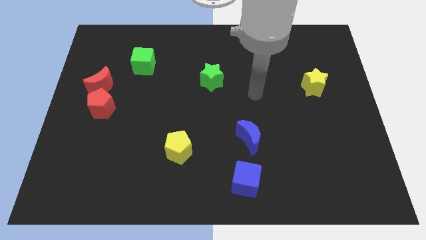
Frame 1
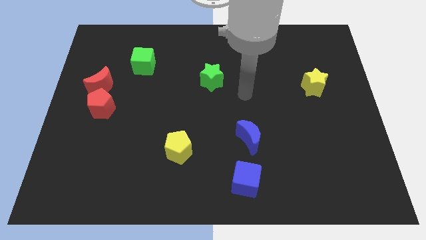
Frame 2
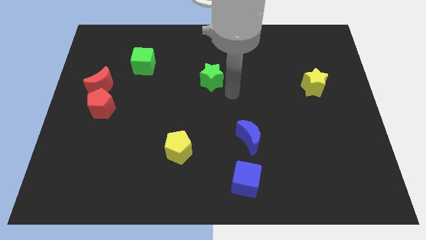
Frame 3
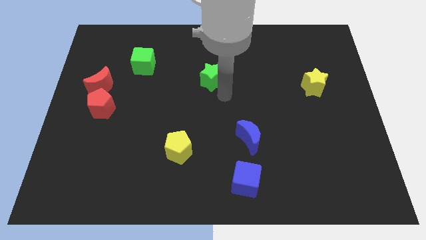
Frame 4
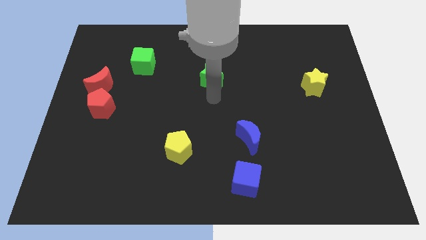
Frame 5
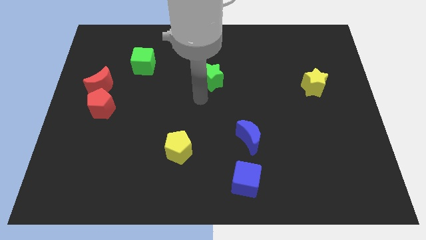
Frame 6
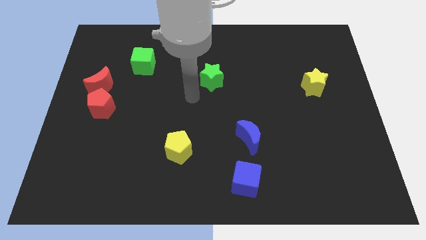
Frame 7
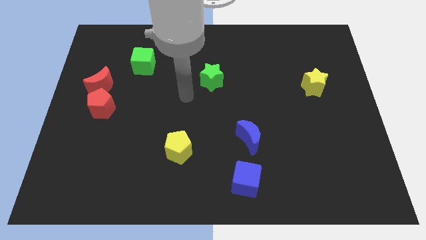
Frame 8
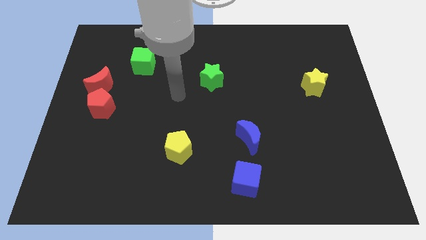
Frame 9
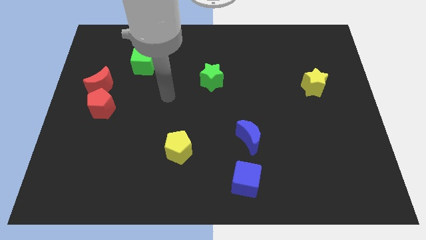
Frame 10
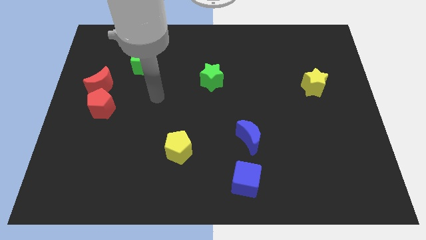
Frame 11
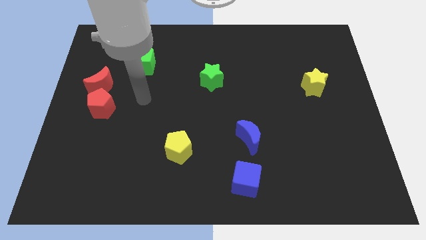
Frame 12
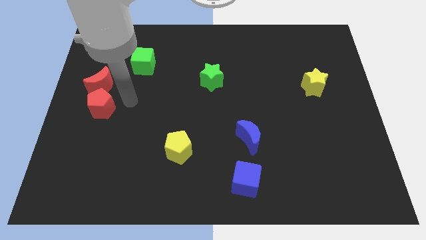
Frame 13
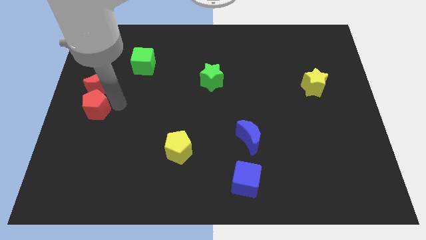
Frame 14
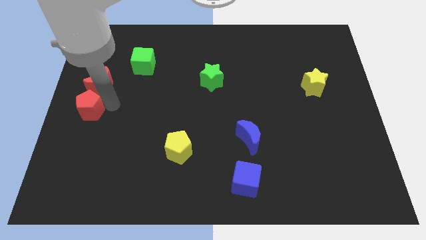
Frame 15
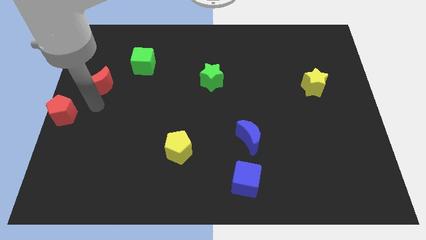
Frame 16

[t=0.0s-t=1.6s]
separate the red moon from the red pentagon

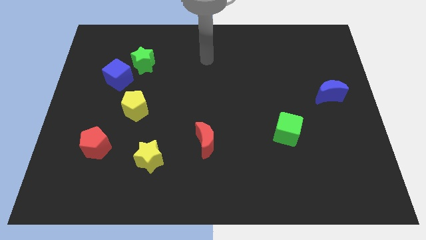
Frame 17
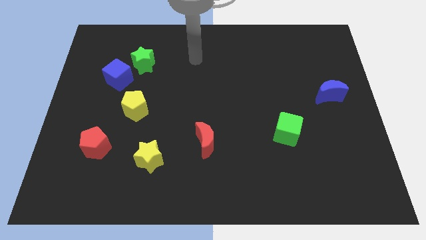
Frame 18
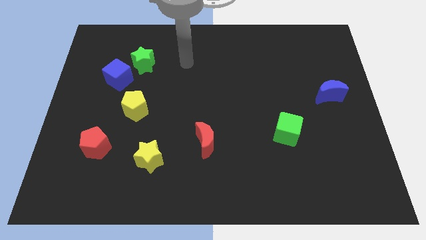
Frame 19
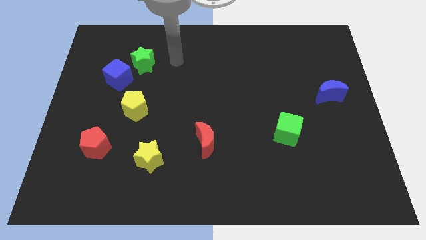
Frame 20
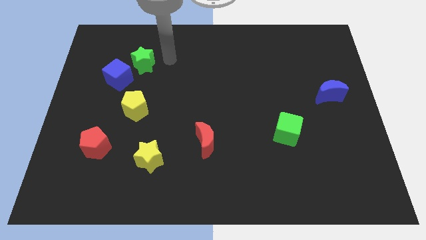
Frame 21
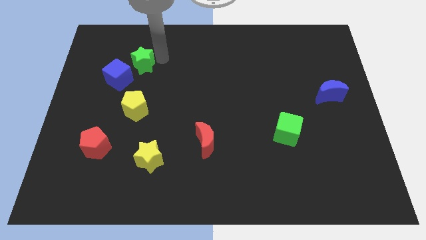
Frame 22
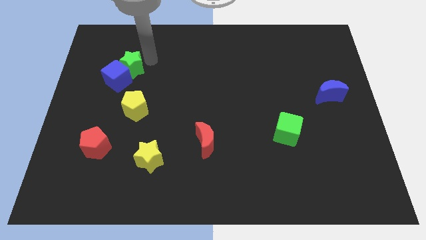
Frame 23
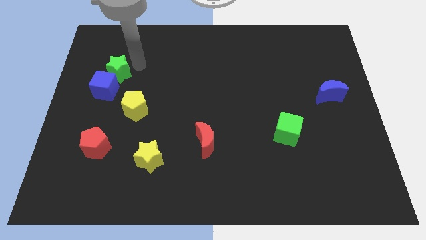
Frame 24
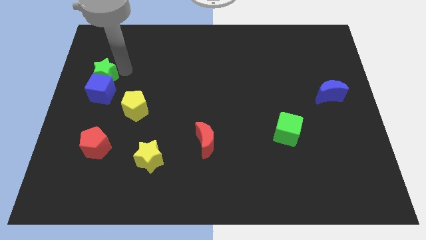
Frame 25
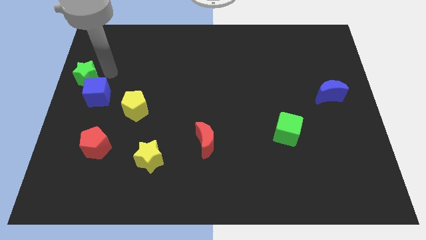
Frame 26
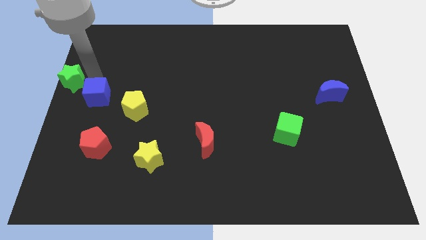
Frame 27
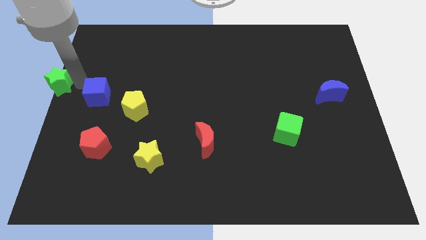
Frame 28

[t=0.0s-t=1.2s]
separate the blue cube from the green star

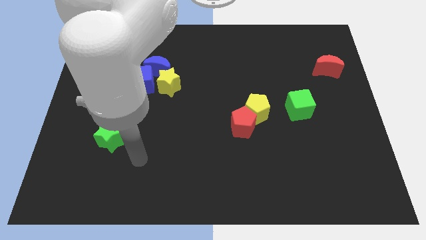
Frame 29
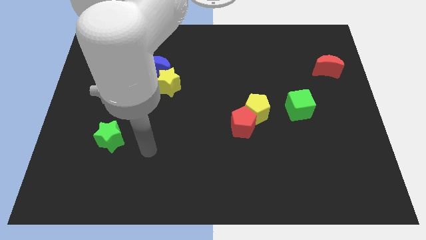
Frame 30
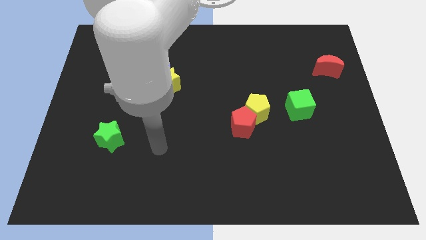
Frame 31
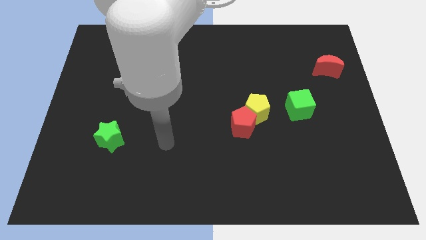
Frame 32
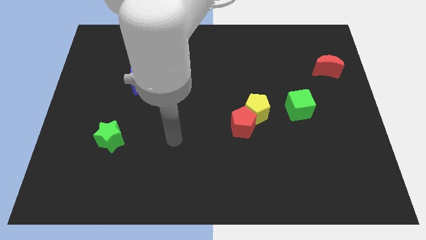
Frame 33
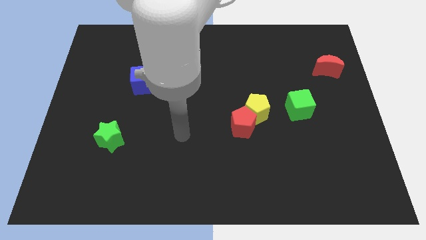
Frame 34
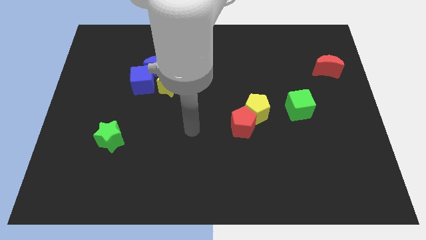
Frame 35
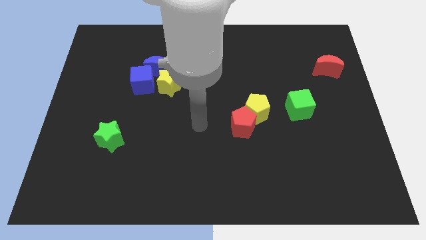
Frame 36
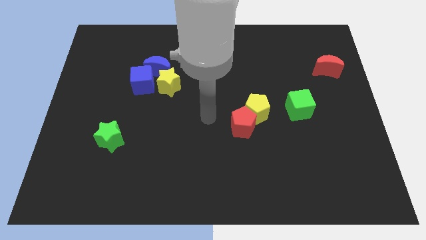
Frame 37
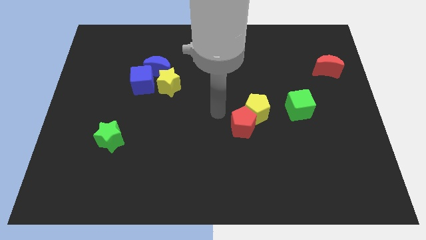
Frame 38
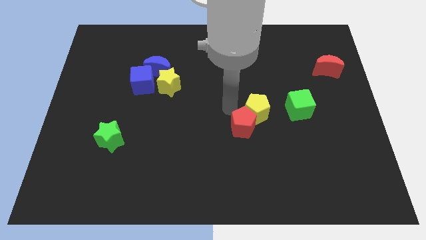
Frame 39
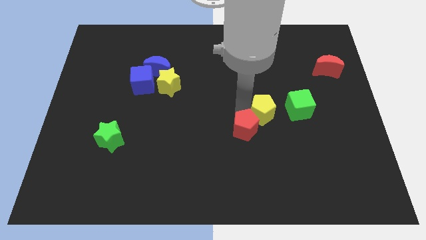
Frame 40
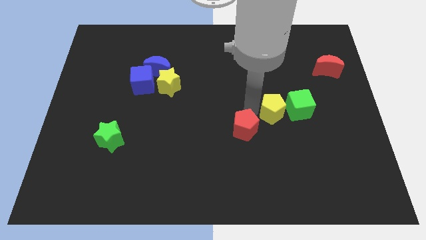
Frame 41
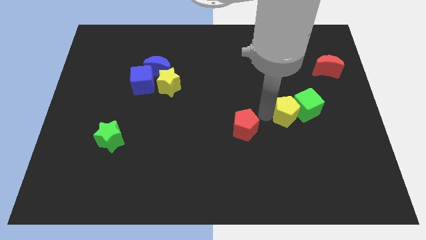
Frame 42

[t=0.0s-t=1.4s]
separate the red pentagon from the yellow pentagon

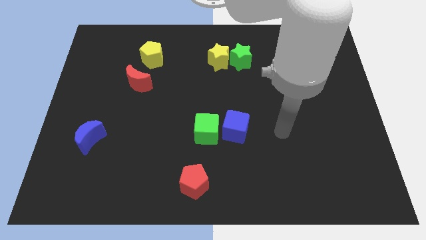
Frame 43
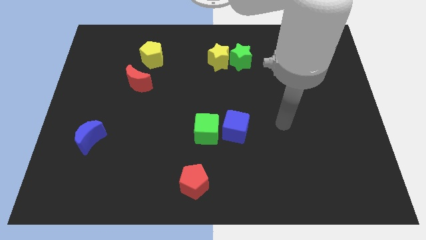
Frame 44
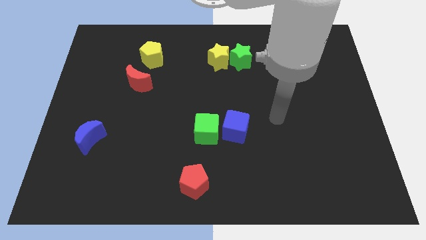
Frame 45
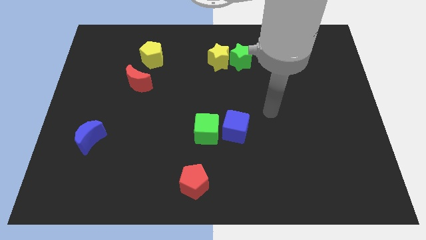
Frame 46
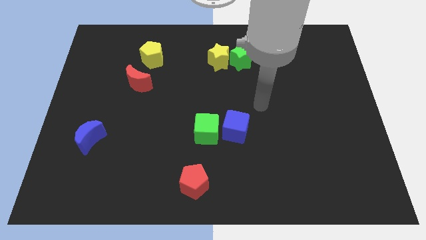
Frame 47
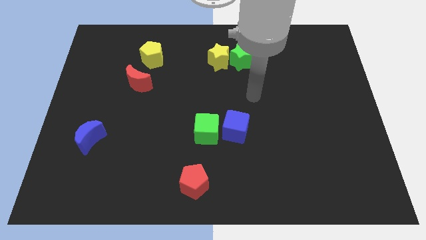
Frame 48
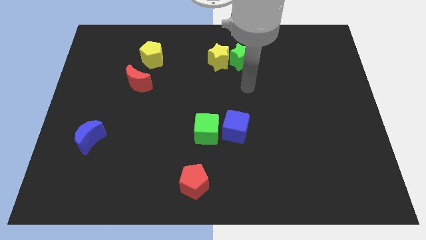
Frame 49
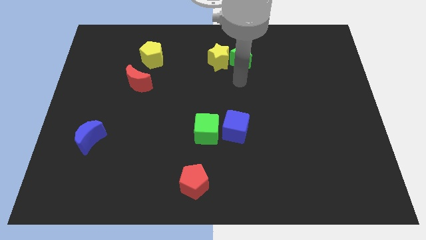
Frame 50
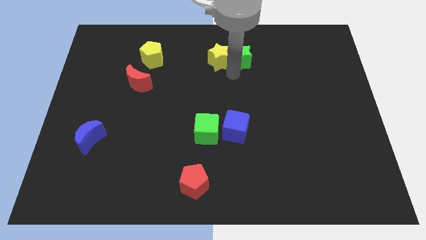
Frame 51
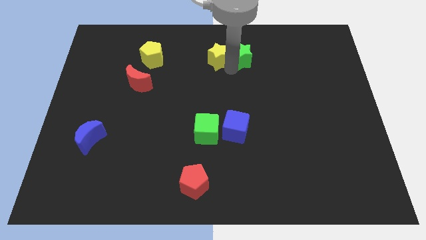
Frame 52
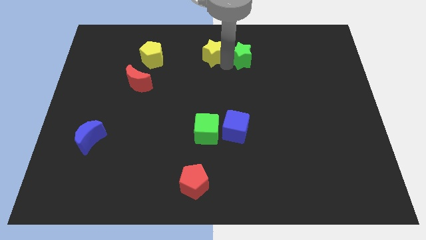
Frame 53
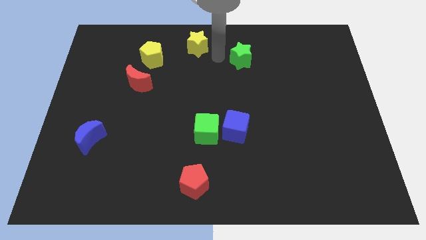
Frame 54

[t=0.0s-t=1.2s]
separate the green star from the yellow star

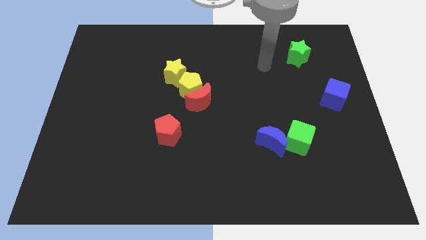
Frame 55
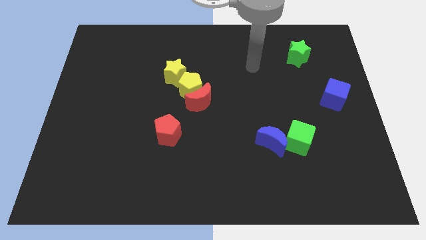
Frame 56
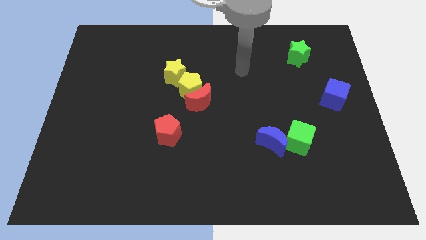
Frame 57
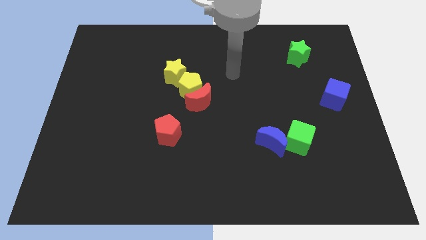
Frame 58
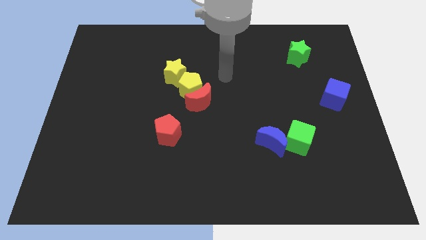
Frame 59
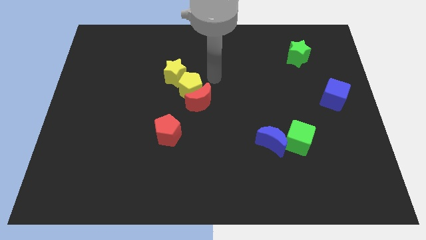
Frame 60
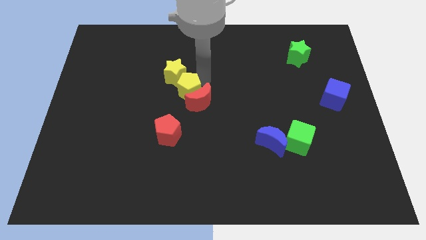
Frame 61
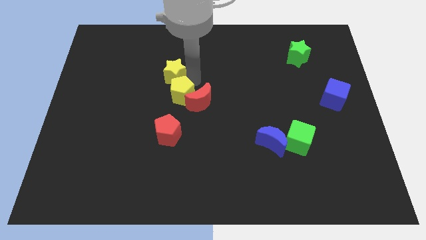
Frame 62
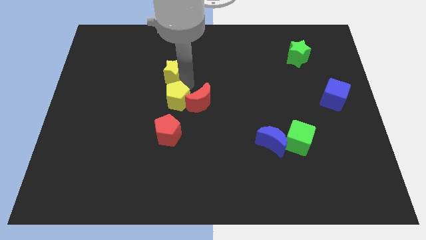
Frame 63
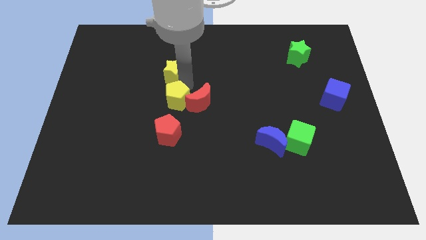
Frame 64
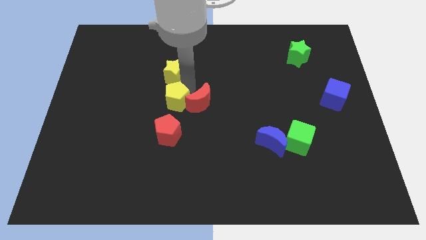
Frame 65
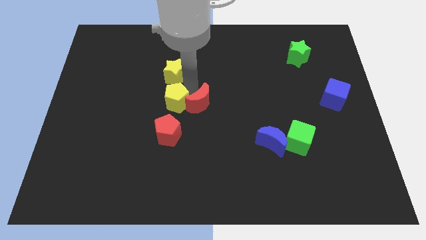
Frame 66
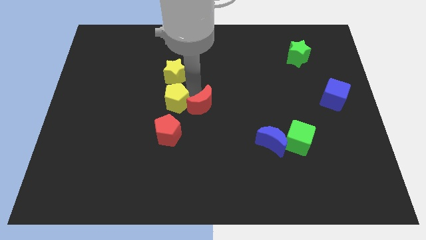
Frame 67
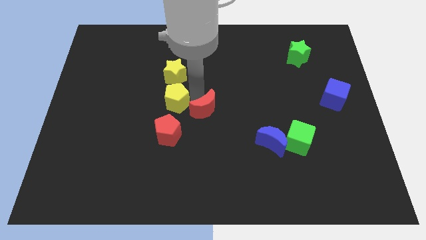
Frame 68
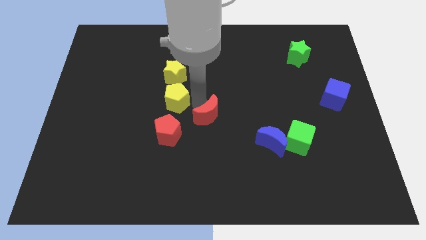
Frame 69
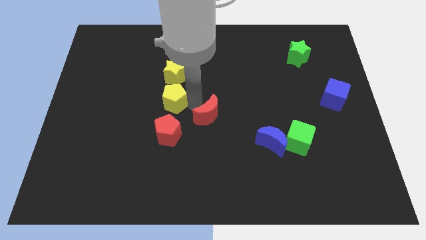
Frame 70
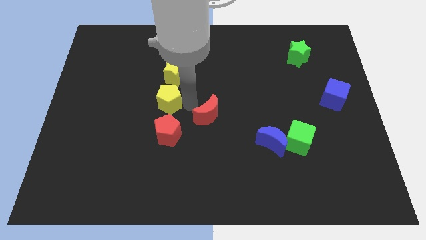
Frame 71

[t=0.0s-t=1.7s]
separate the red moon from the yellow pentagon

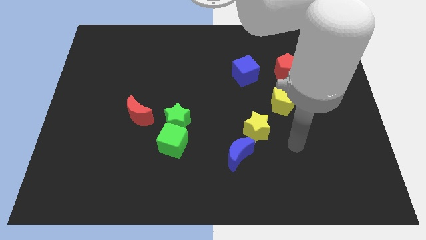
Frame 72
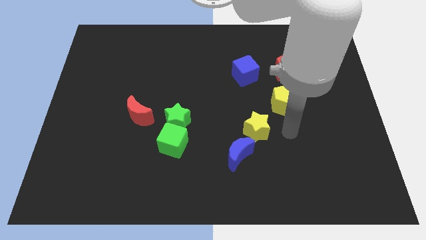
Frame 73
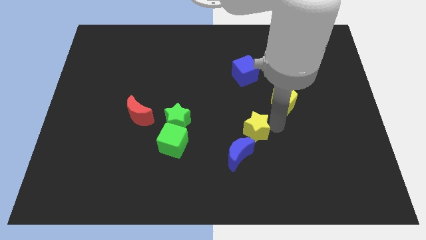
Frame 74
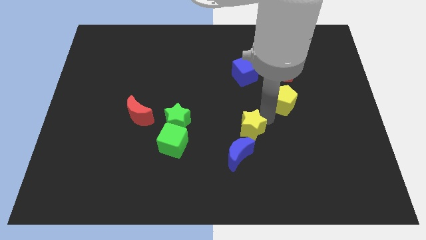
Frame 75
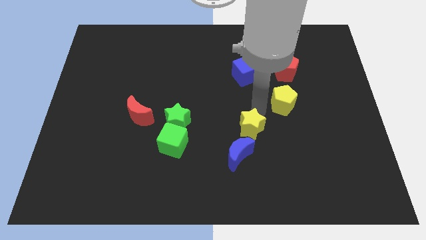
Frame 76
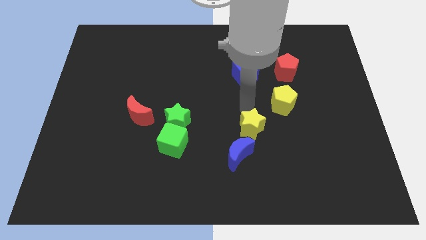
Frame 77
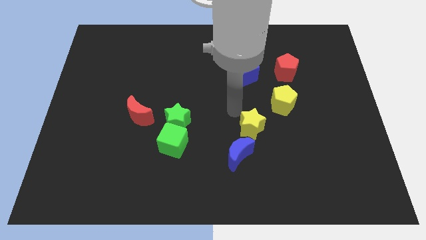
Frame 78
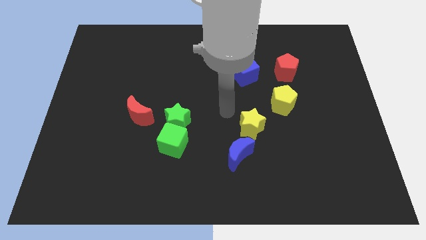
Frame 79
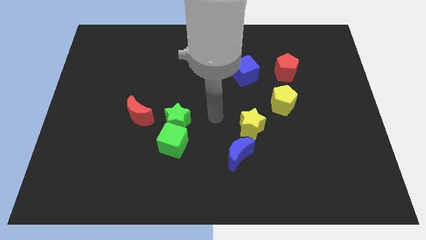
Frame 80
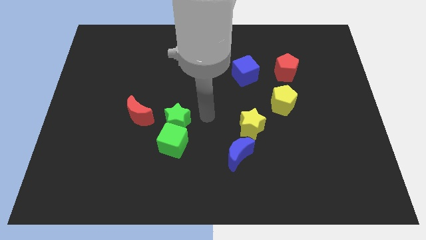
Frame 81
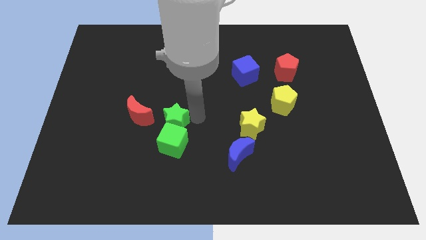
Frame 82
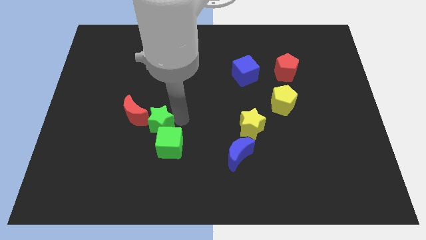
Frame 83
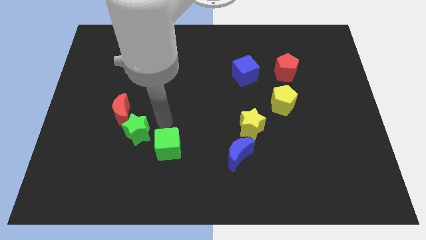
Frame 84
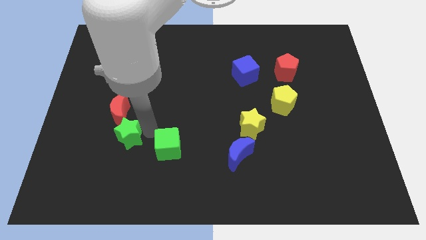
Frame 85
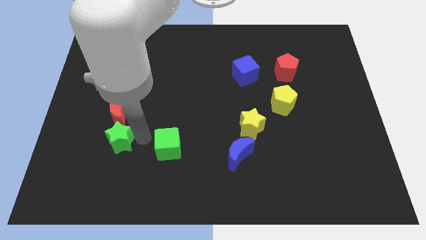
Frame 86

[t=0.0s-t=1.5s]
move the green cube away from the green star

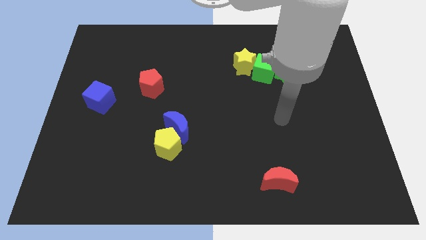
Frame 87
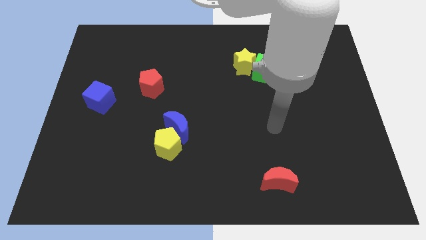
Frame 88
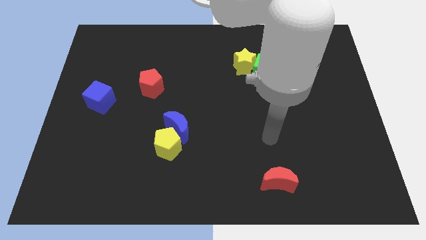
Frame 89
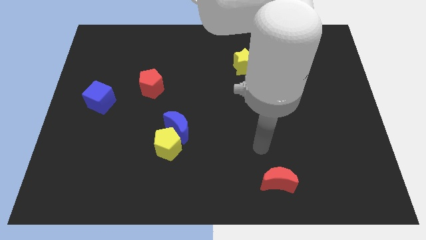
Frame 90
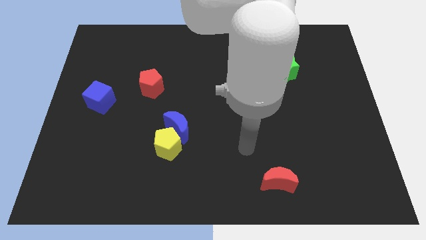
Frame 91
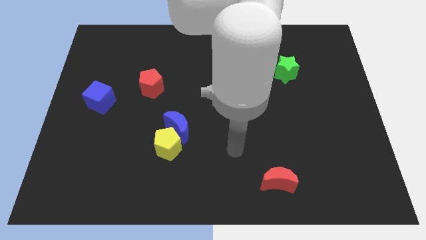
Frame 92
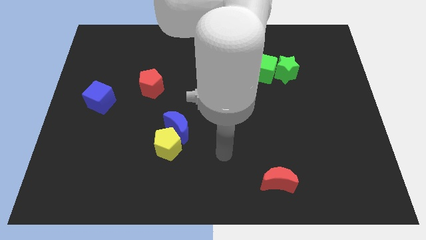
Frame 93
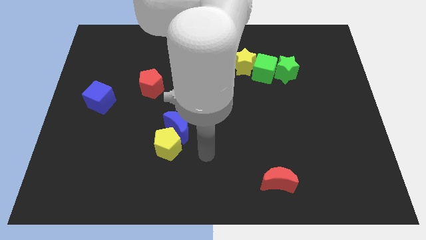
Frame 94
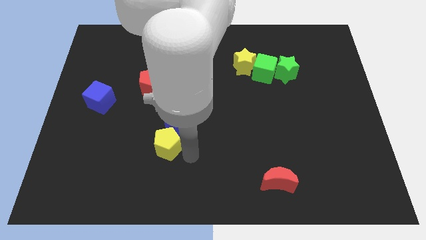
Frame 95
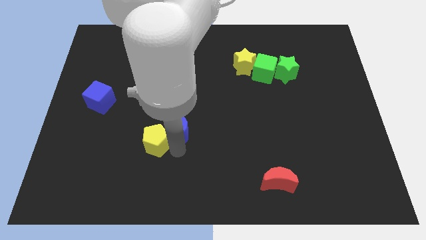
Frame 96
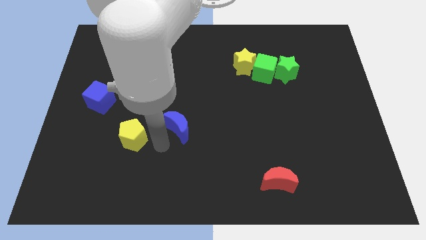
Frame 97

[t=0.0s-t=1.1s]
move the blue moon away from the yellow pentagon
